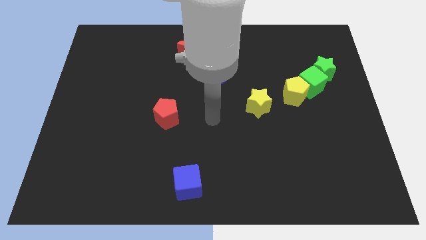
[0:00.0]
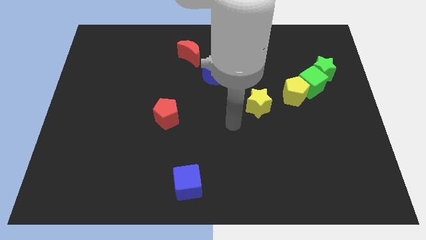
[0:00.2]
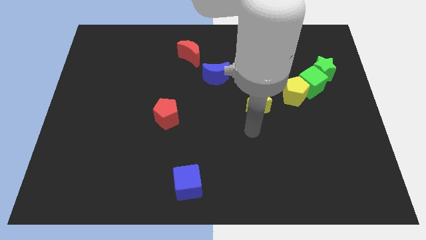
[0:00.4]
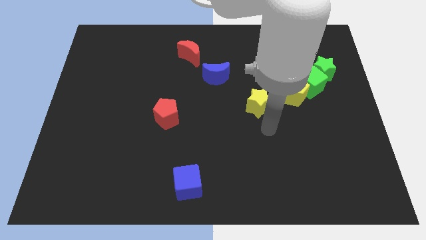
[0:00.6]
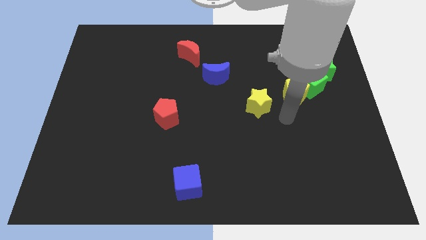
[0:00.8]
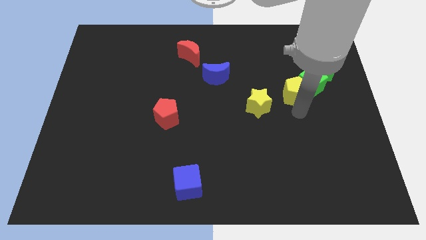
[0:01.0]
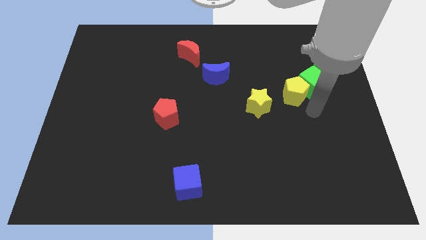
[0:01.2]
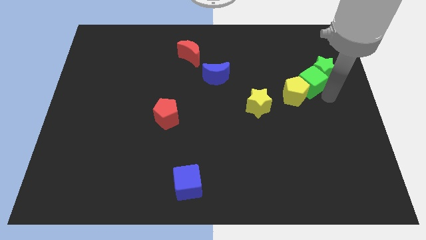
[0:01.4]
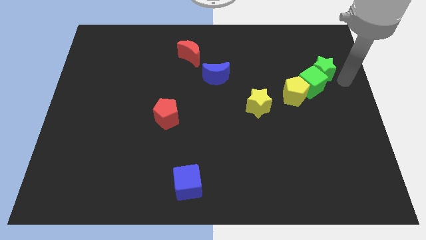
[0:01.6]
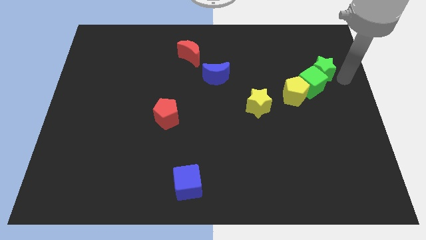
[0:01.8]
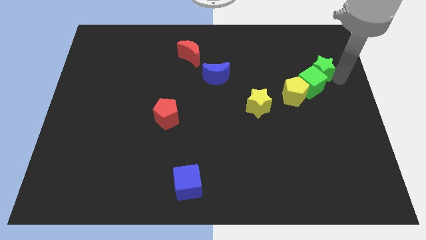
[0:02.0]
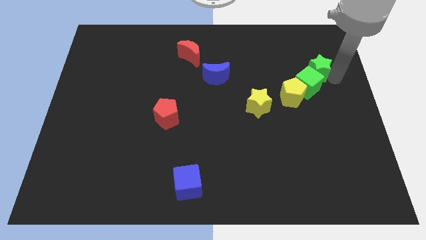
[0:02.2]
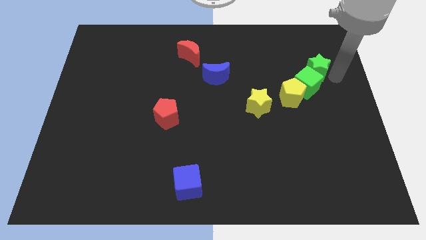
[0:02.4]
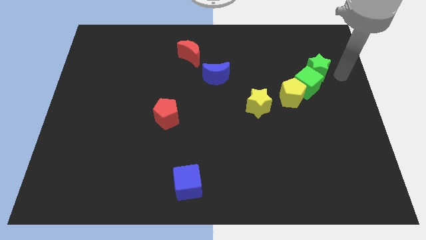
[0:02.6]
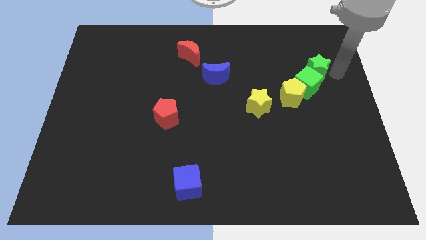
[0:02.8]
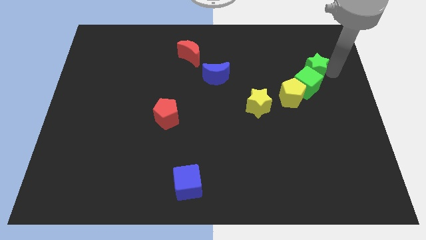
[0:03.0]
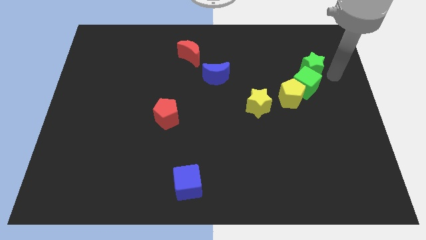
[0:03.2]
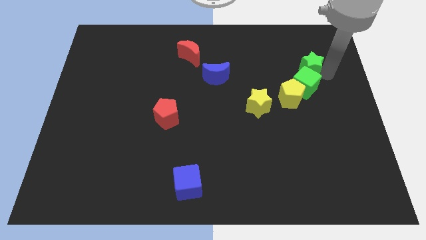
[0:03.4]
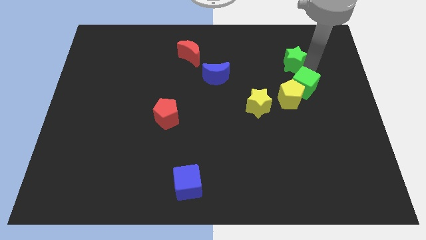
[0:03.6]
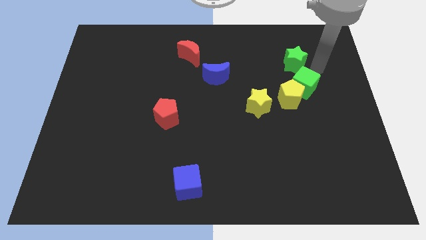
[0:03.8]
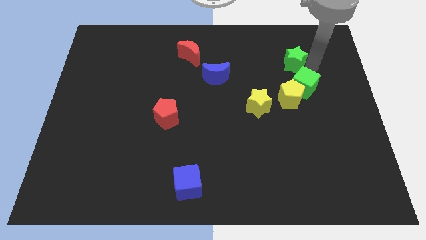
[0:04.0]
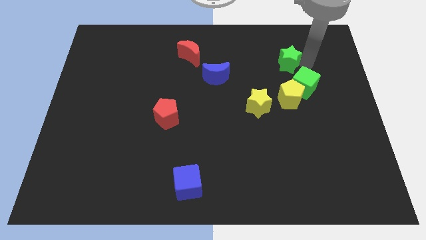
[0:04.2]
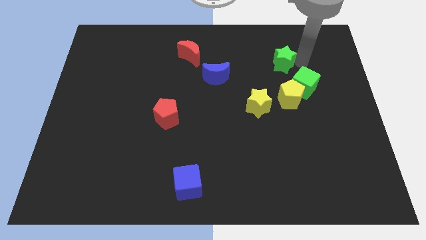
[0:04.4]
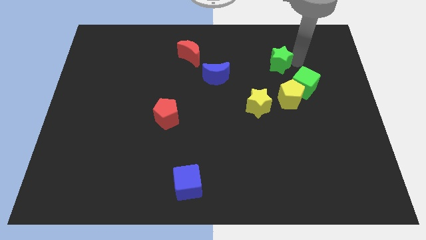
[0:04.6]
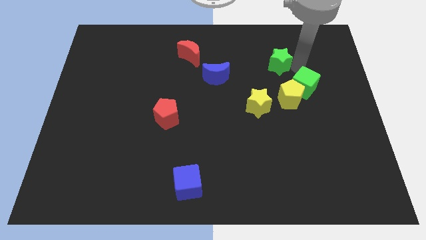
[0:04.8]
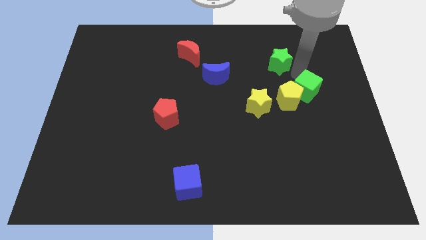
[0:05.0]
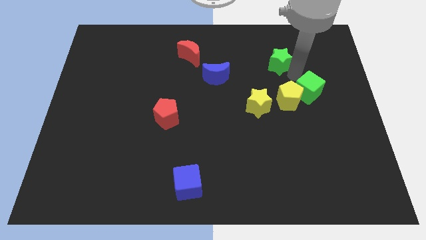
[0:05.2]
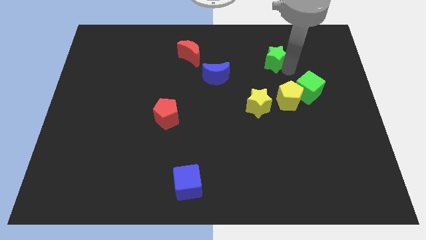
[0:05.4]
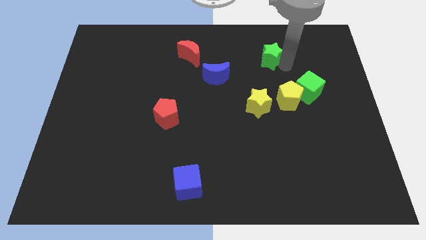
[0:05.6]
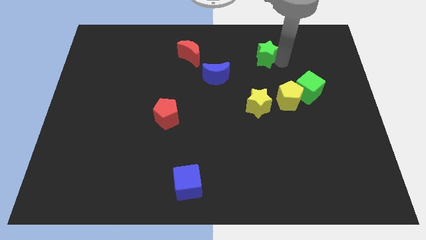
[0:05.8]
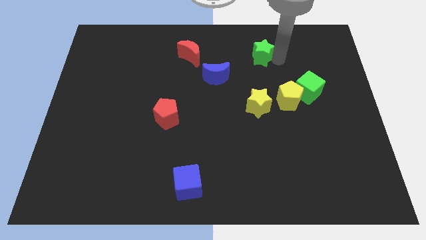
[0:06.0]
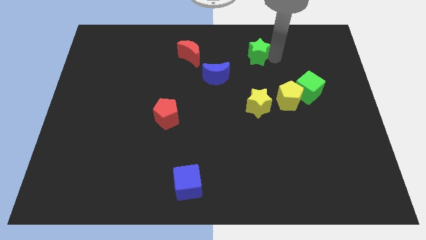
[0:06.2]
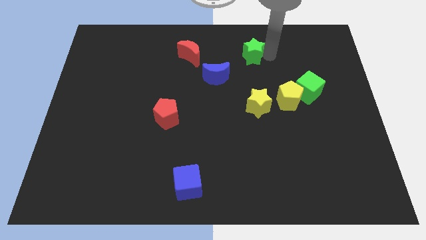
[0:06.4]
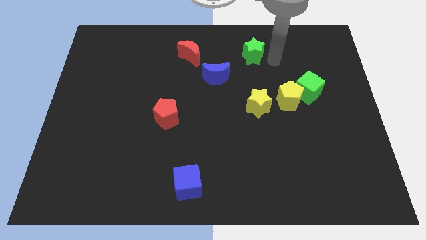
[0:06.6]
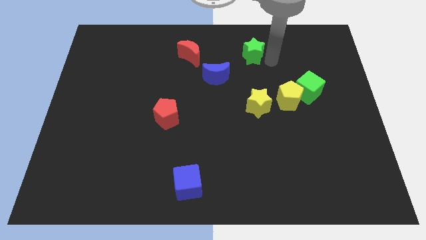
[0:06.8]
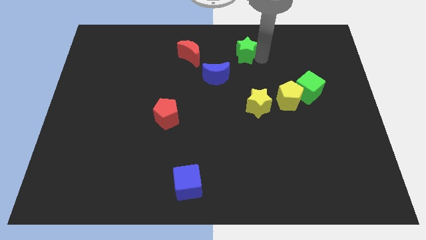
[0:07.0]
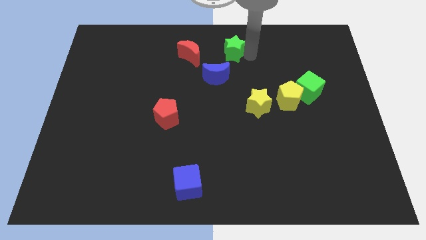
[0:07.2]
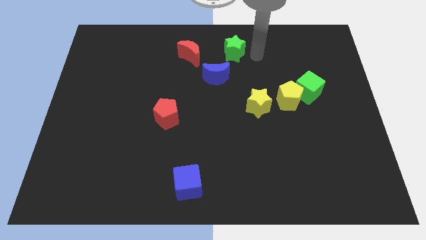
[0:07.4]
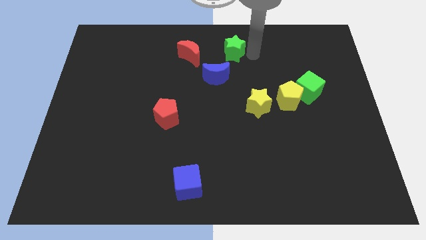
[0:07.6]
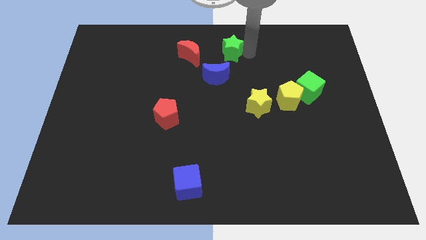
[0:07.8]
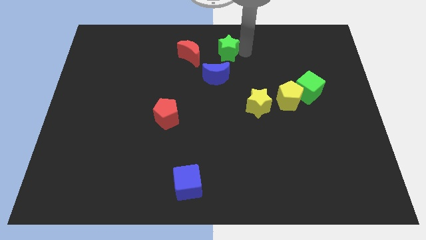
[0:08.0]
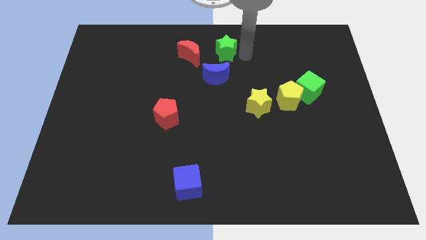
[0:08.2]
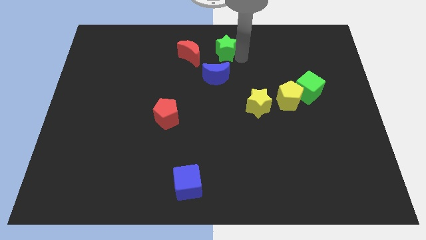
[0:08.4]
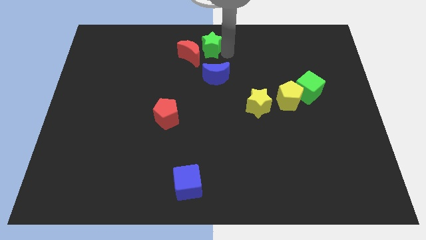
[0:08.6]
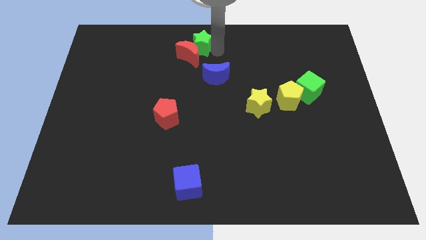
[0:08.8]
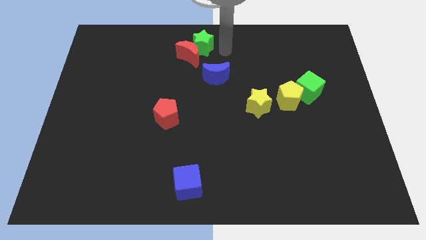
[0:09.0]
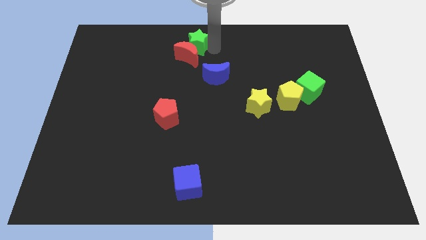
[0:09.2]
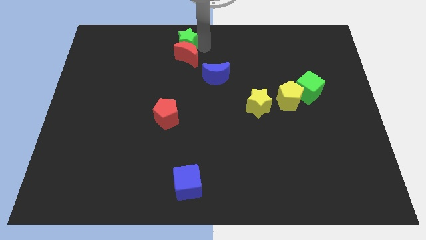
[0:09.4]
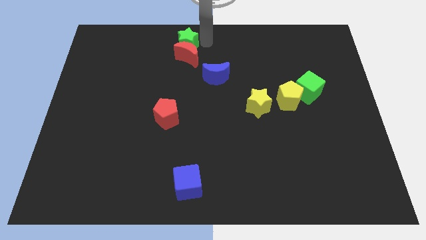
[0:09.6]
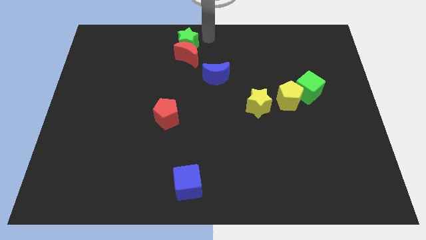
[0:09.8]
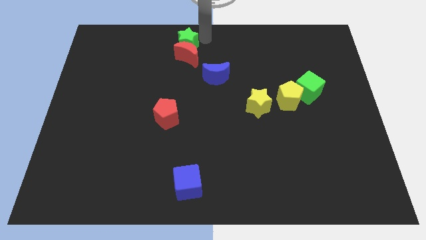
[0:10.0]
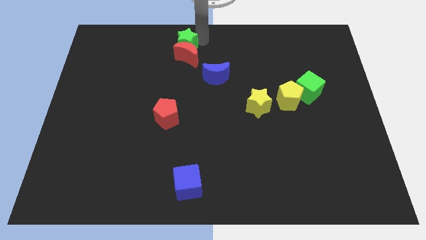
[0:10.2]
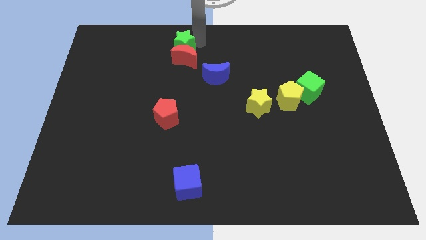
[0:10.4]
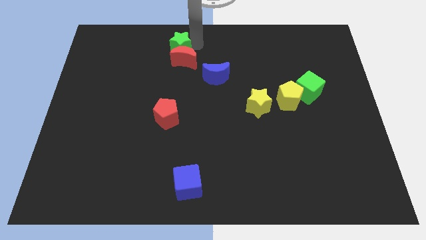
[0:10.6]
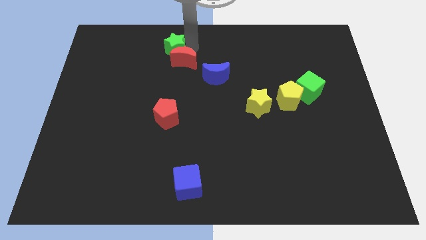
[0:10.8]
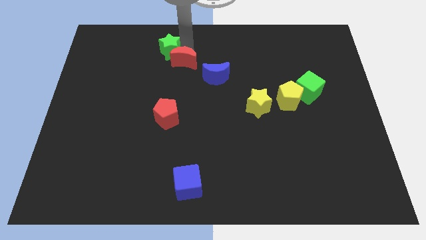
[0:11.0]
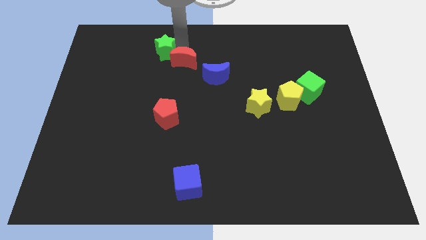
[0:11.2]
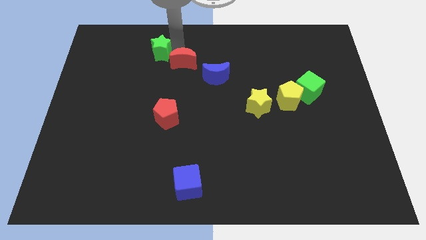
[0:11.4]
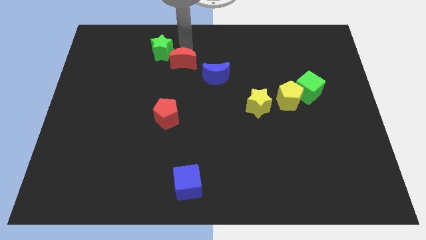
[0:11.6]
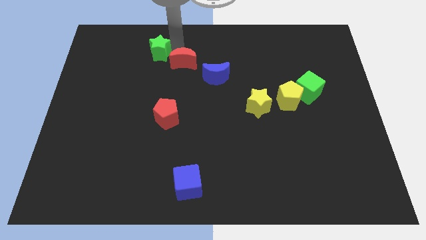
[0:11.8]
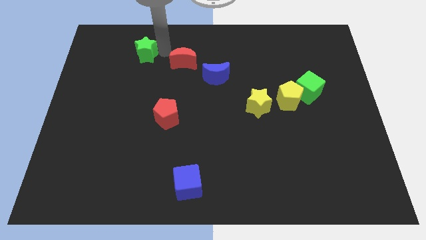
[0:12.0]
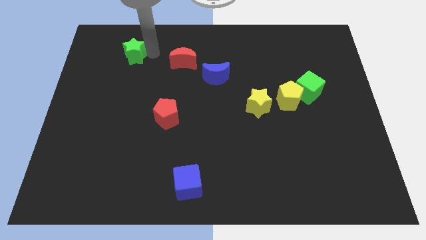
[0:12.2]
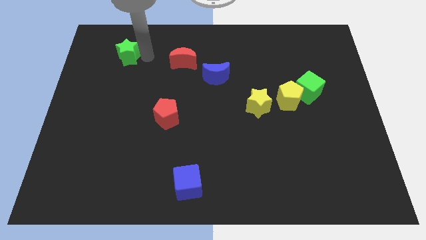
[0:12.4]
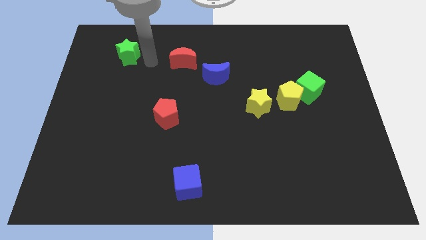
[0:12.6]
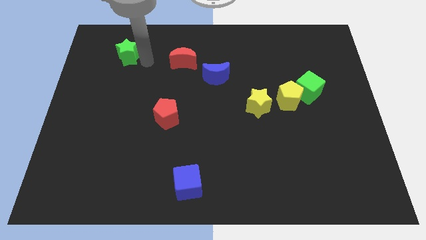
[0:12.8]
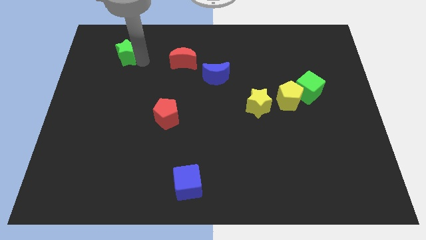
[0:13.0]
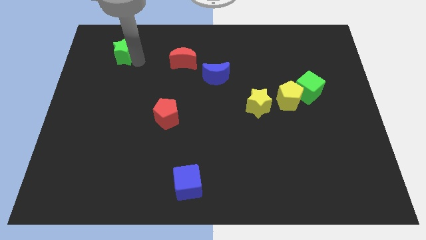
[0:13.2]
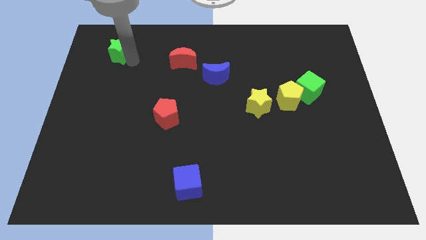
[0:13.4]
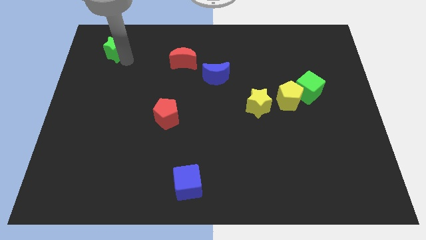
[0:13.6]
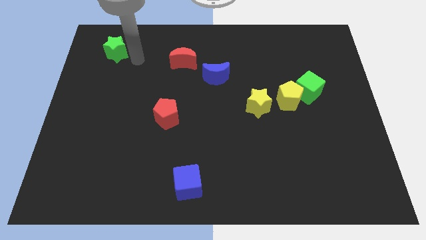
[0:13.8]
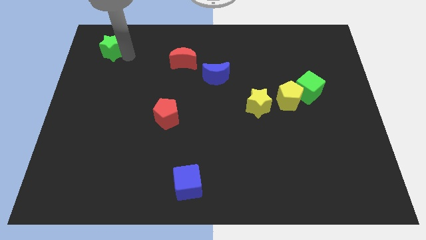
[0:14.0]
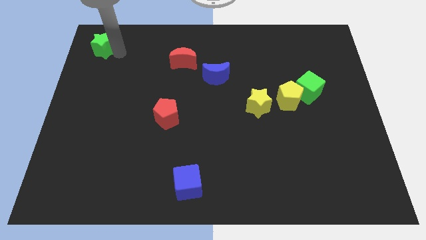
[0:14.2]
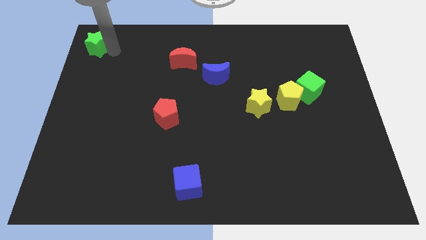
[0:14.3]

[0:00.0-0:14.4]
put the green star to the top left corner
